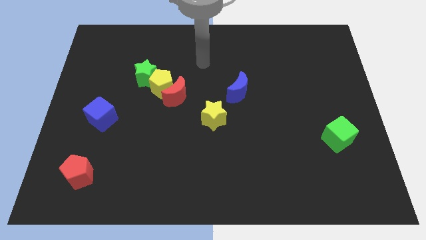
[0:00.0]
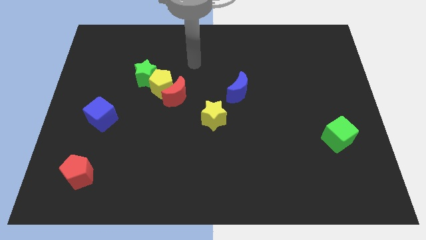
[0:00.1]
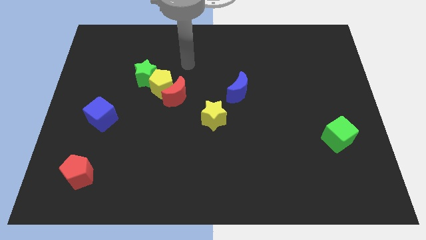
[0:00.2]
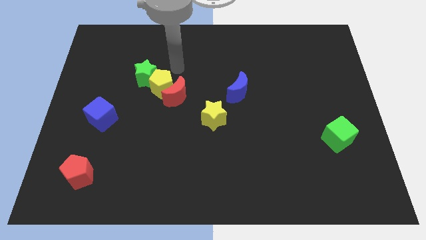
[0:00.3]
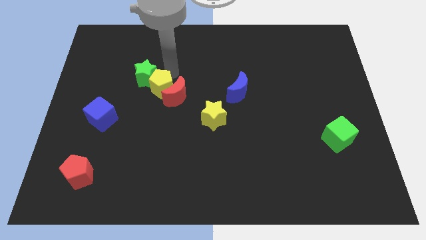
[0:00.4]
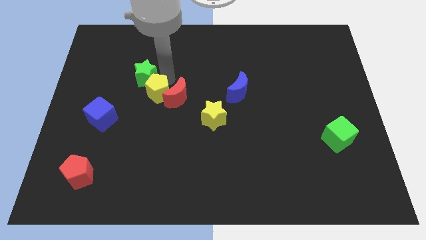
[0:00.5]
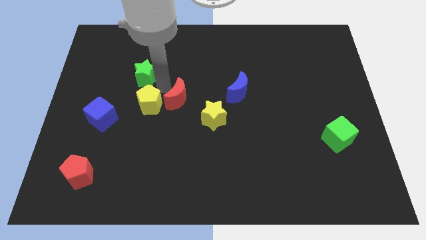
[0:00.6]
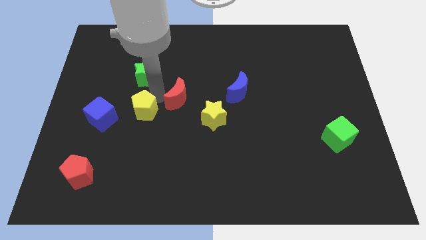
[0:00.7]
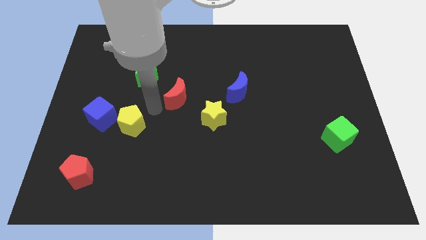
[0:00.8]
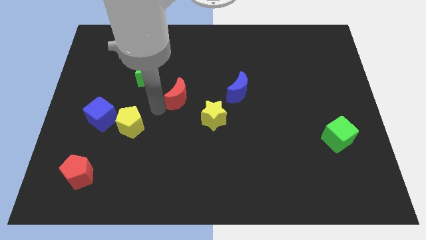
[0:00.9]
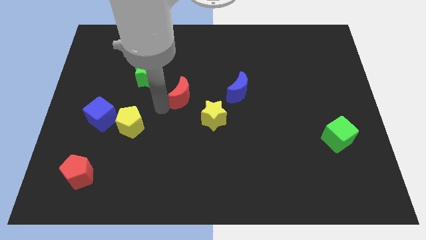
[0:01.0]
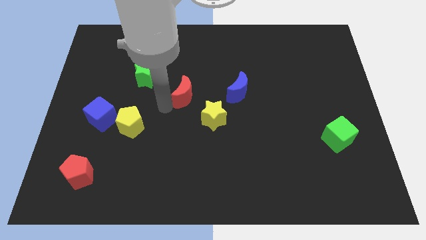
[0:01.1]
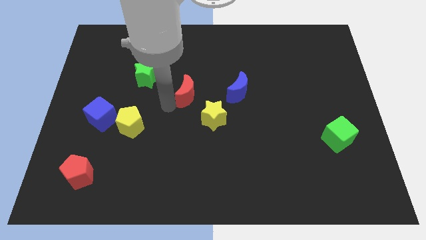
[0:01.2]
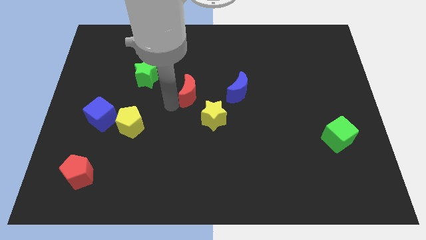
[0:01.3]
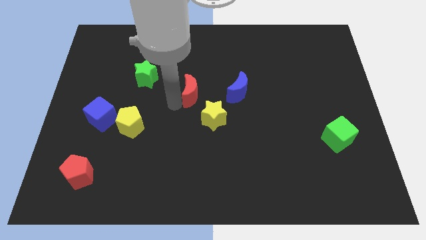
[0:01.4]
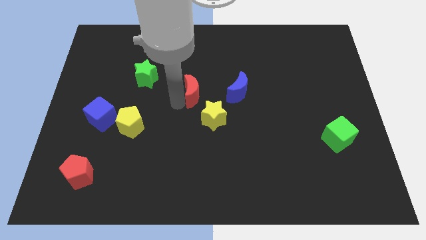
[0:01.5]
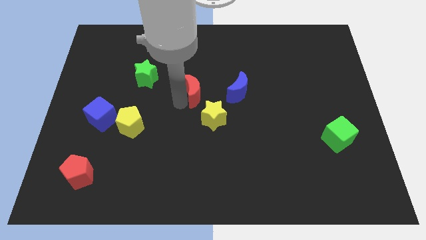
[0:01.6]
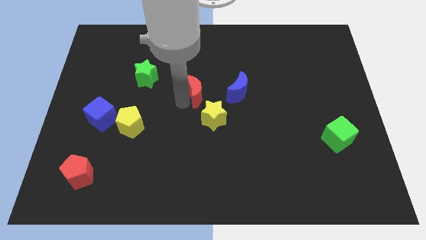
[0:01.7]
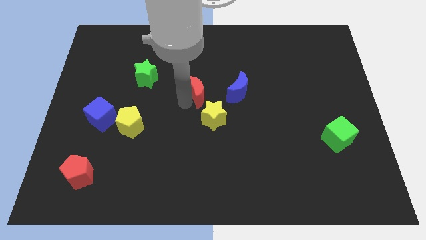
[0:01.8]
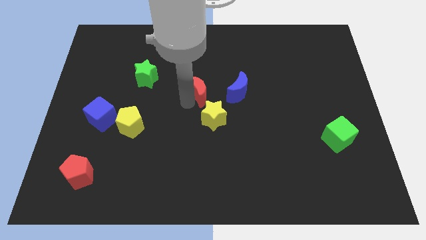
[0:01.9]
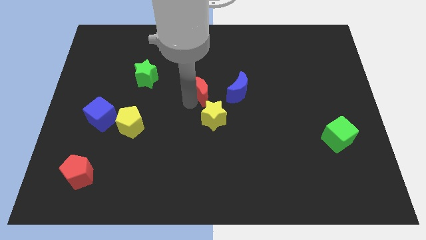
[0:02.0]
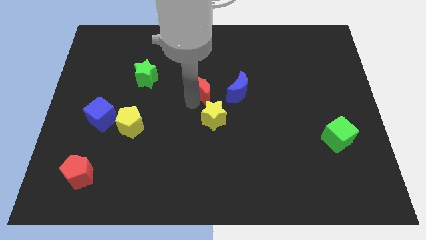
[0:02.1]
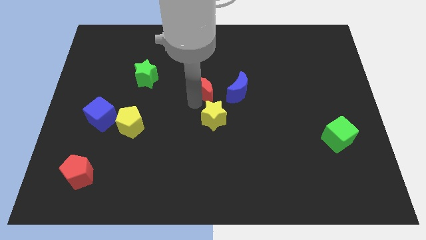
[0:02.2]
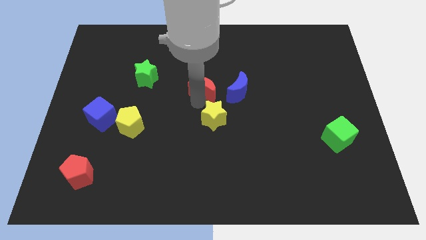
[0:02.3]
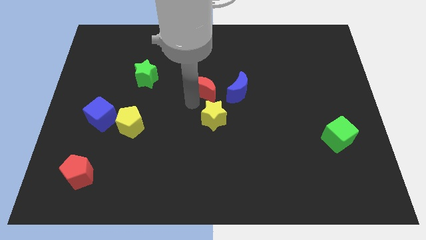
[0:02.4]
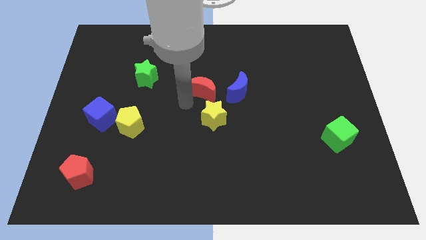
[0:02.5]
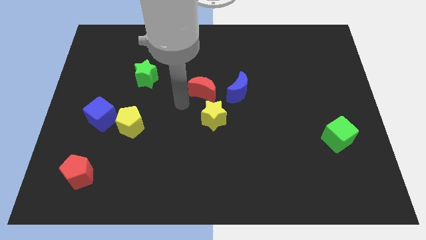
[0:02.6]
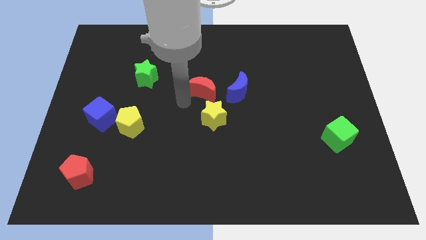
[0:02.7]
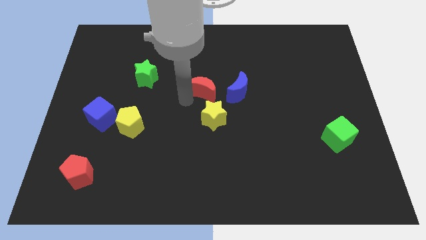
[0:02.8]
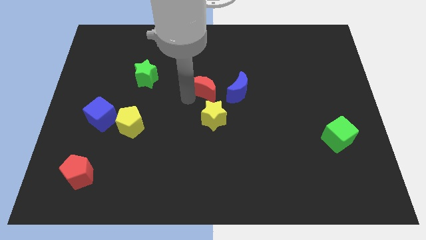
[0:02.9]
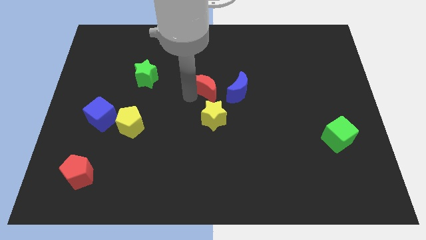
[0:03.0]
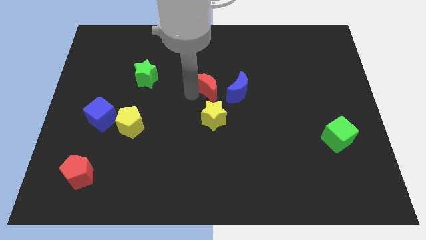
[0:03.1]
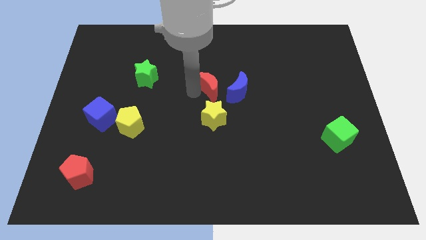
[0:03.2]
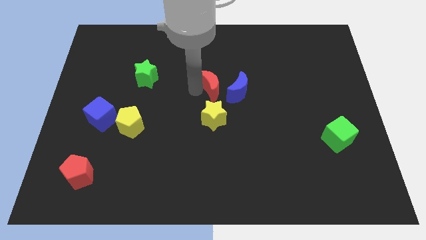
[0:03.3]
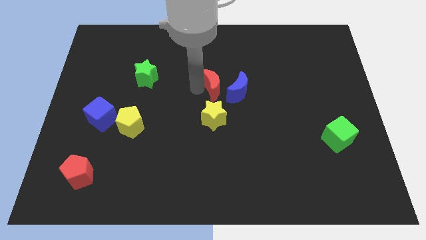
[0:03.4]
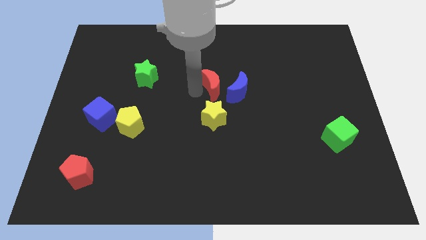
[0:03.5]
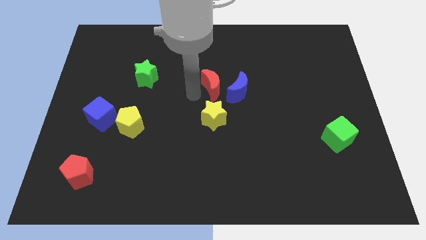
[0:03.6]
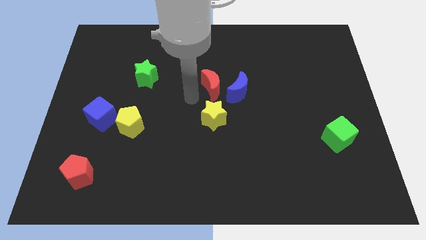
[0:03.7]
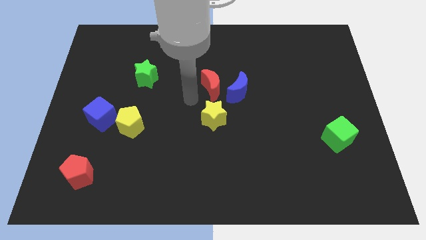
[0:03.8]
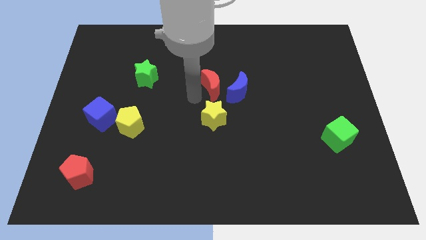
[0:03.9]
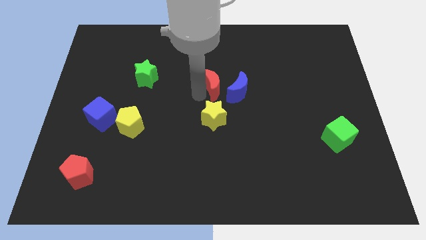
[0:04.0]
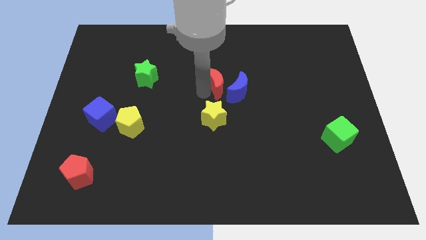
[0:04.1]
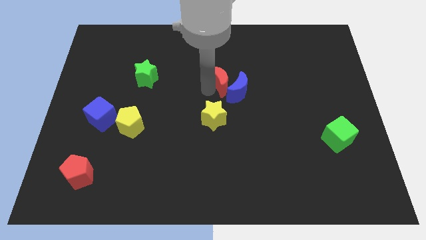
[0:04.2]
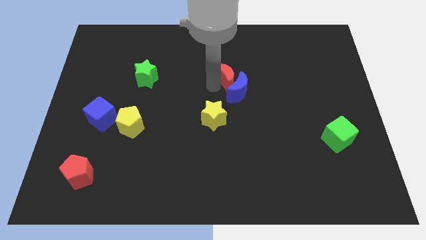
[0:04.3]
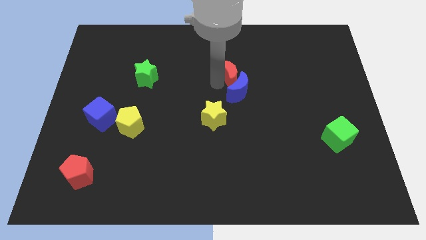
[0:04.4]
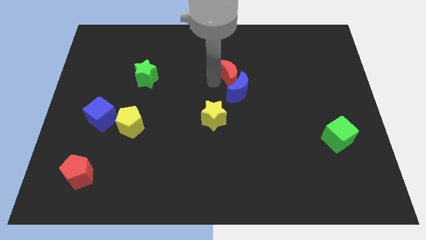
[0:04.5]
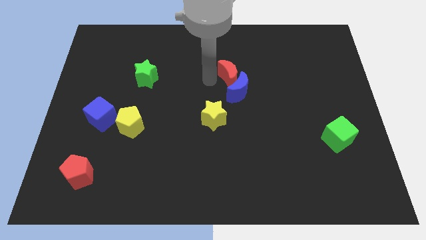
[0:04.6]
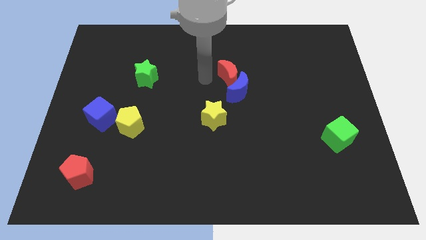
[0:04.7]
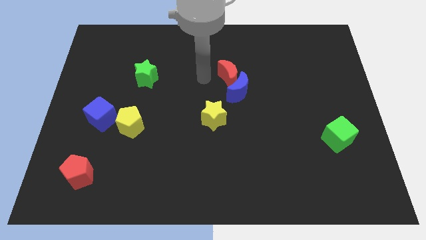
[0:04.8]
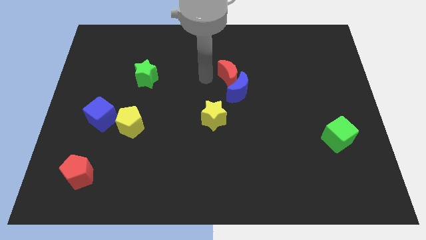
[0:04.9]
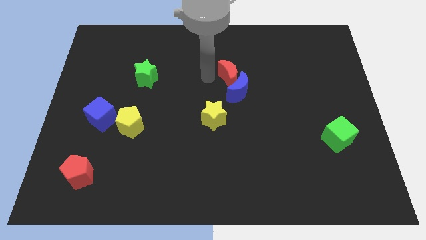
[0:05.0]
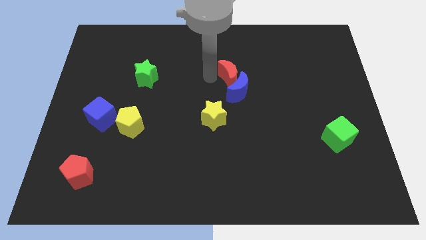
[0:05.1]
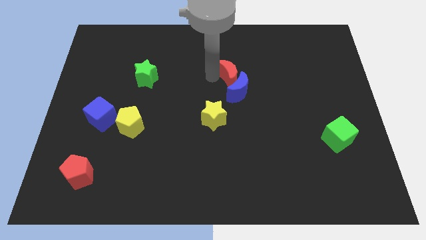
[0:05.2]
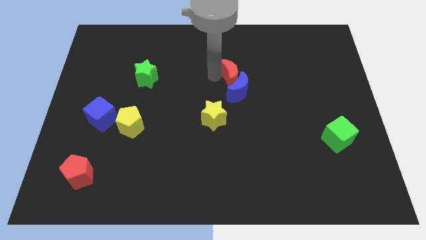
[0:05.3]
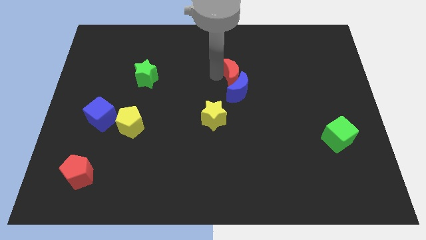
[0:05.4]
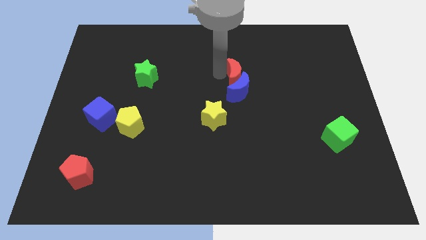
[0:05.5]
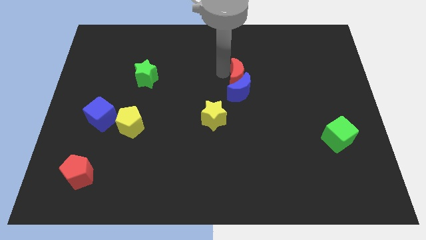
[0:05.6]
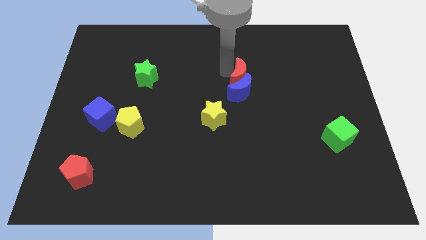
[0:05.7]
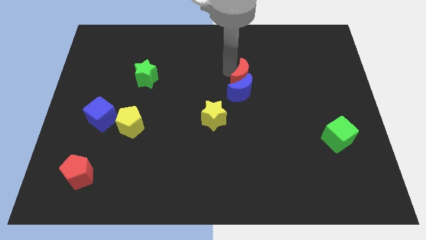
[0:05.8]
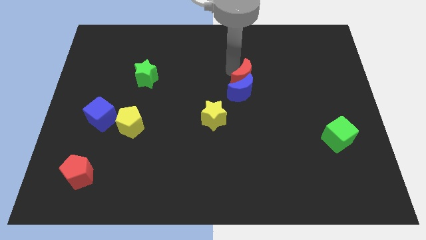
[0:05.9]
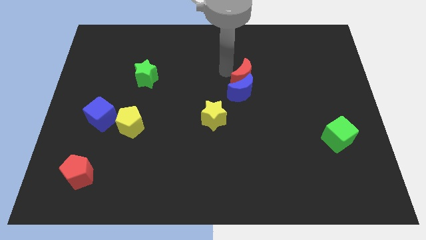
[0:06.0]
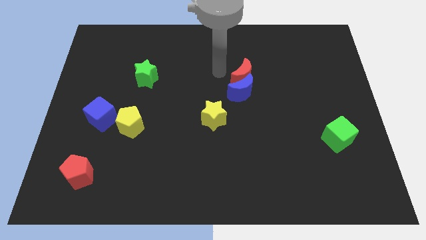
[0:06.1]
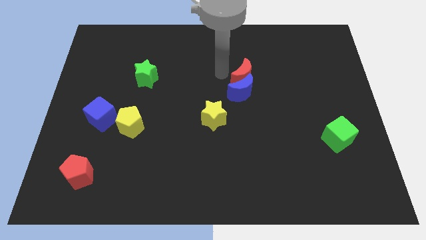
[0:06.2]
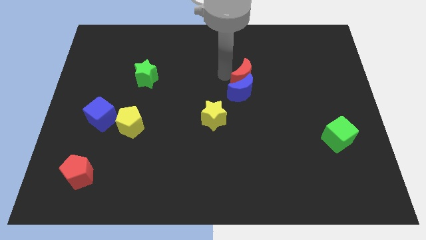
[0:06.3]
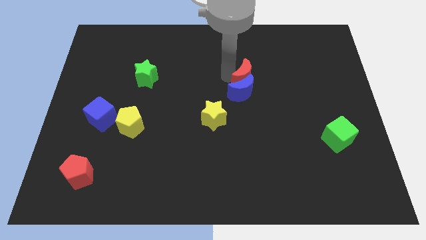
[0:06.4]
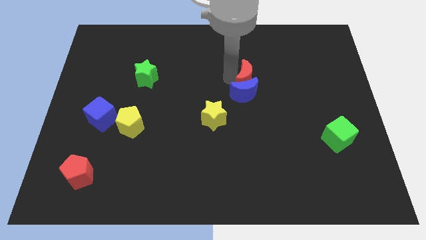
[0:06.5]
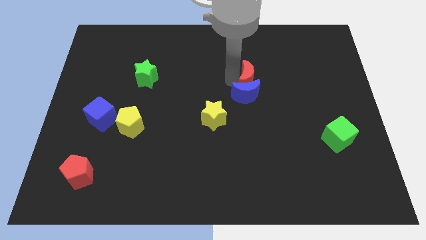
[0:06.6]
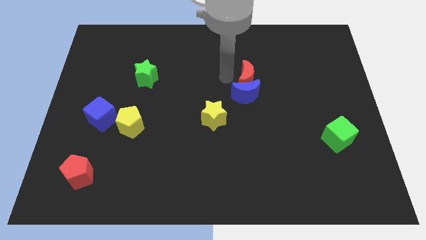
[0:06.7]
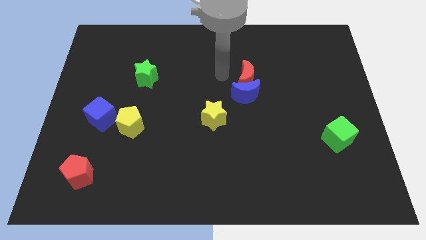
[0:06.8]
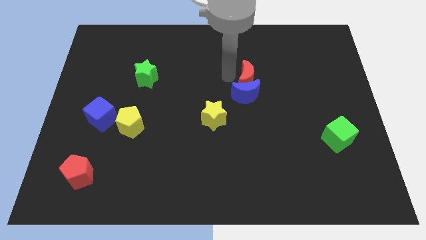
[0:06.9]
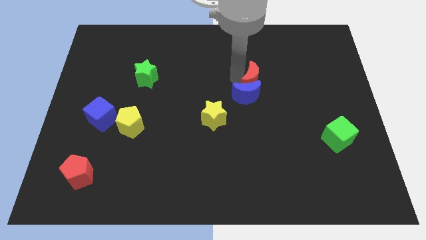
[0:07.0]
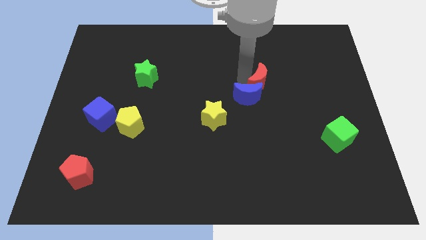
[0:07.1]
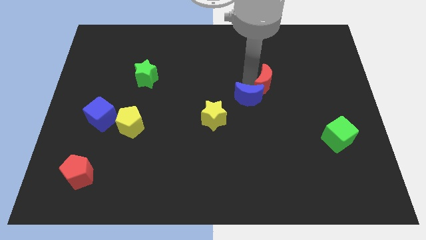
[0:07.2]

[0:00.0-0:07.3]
move the red moon right

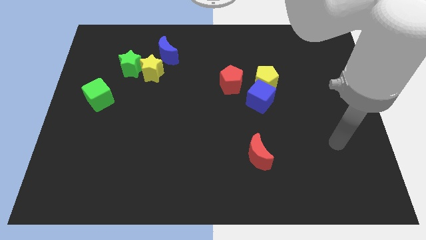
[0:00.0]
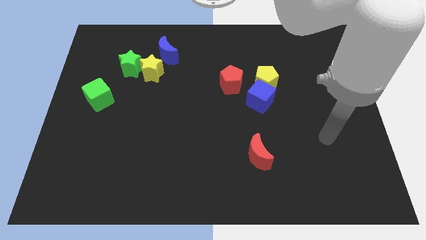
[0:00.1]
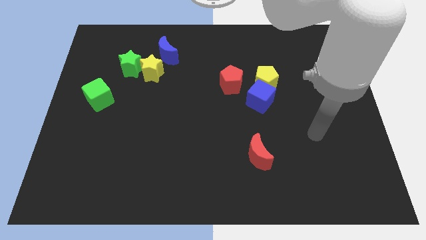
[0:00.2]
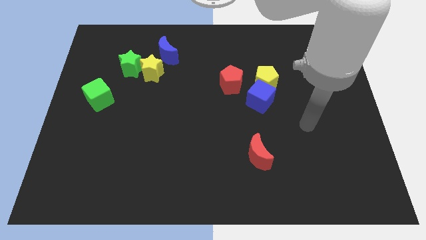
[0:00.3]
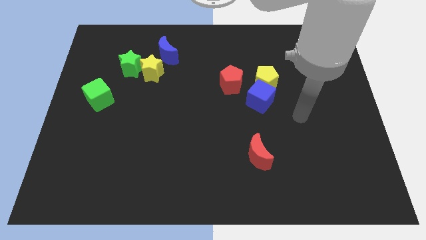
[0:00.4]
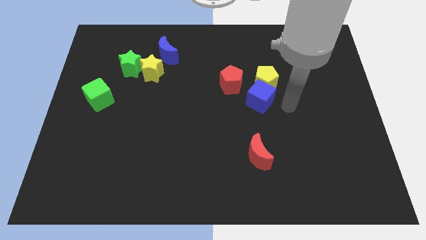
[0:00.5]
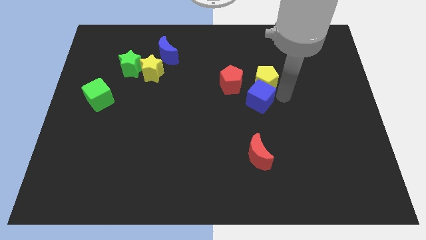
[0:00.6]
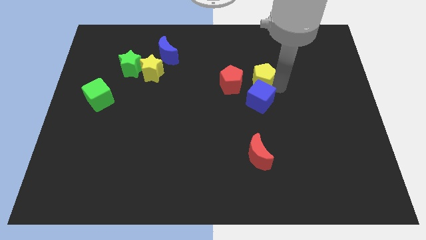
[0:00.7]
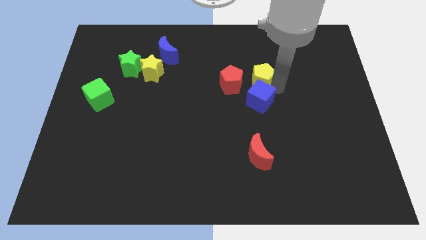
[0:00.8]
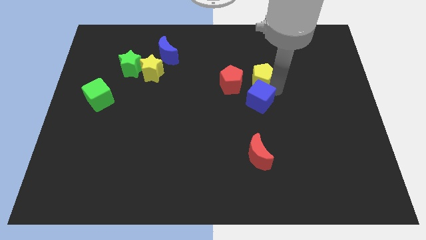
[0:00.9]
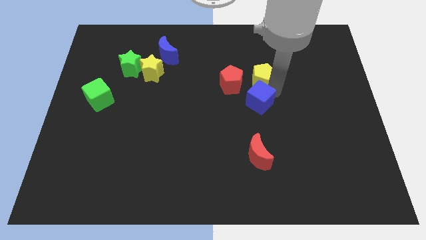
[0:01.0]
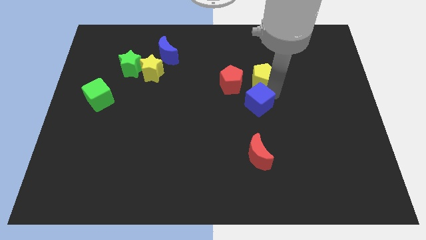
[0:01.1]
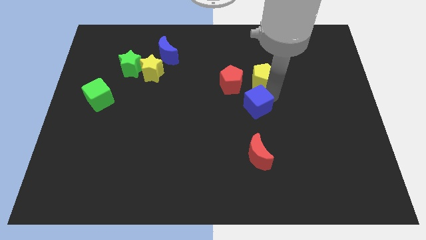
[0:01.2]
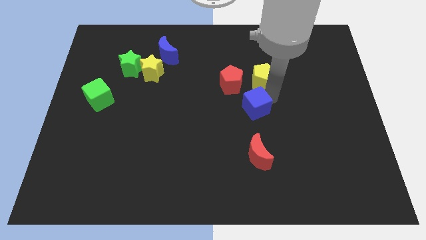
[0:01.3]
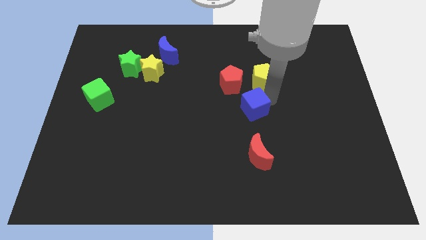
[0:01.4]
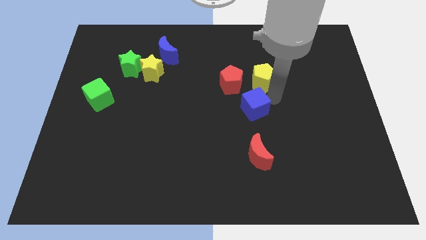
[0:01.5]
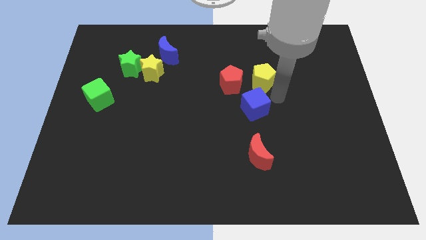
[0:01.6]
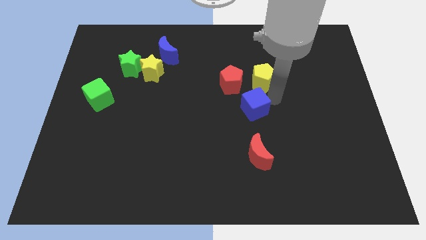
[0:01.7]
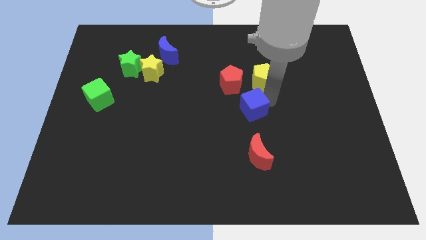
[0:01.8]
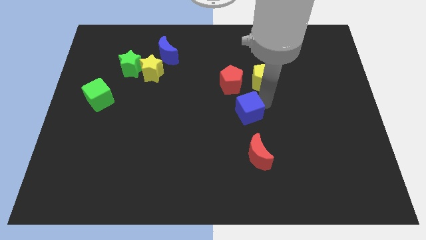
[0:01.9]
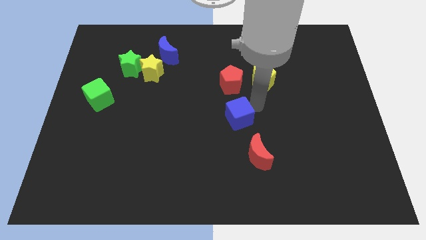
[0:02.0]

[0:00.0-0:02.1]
slide the blue cube slightly diagonally downwards and to the left
